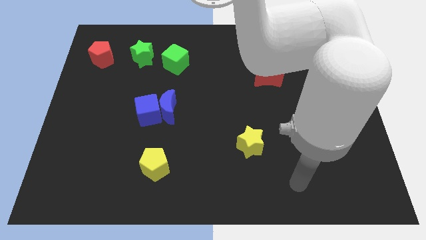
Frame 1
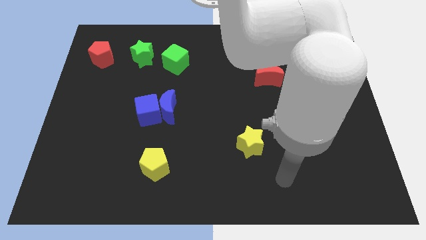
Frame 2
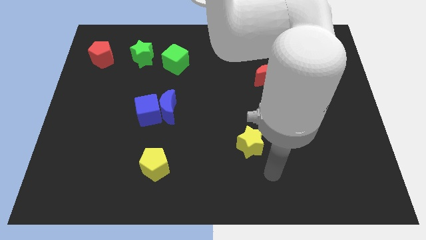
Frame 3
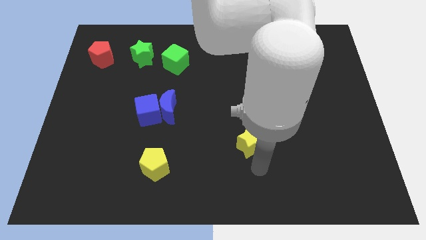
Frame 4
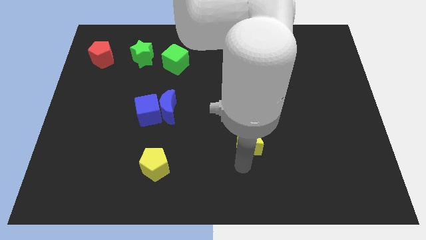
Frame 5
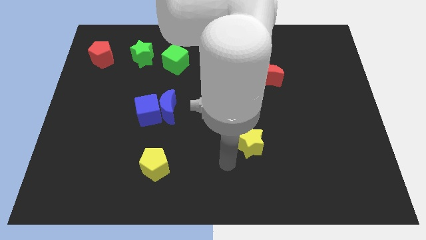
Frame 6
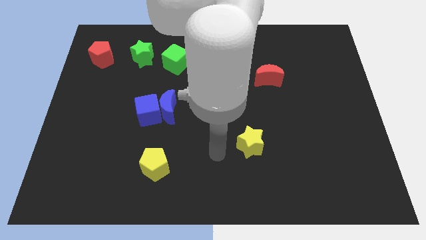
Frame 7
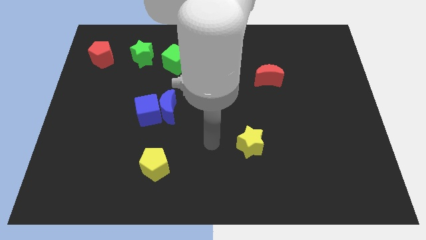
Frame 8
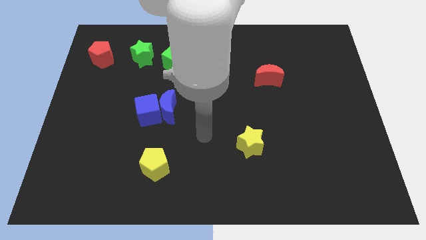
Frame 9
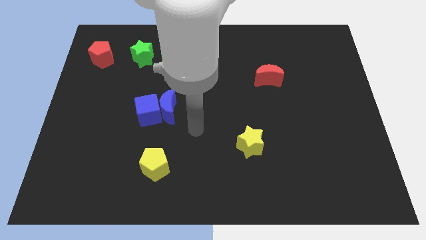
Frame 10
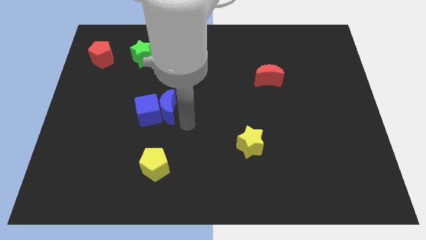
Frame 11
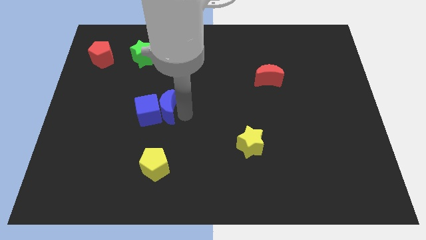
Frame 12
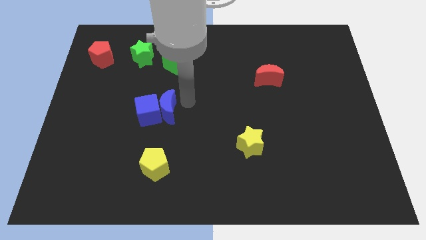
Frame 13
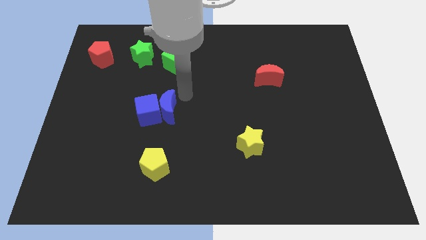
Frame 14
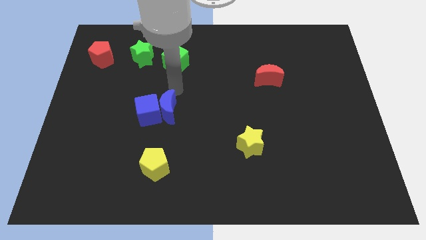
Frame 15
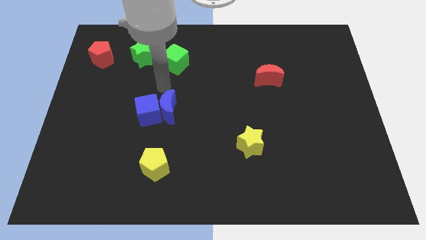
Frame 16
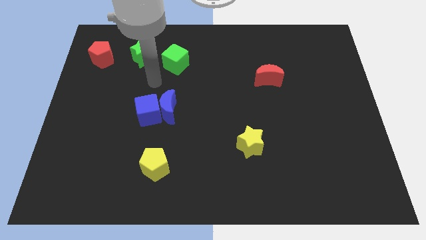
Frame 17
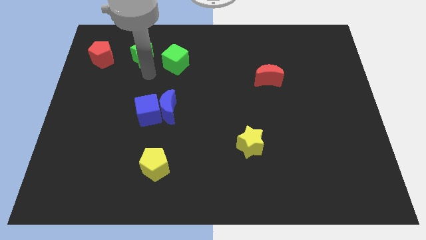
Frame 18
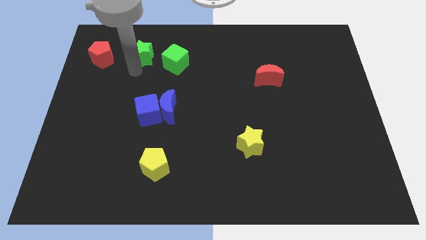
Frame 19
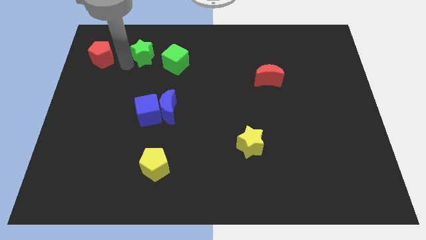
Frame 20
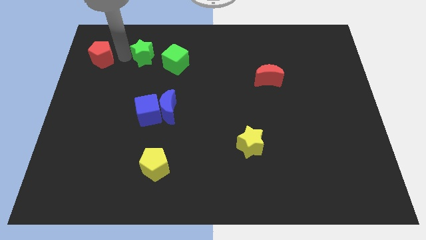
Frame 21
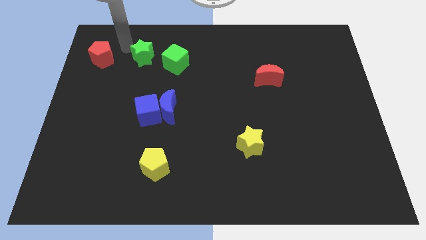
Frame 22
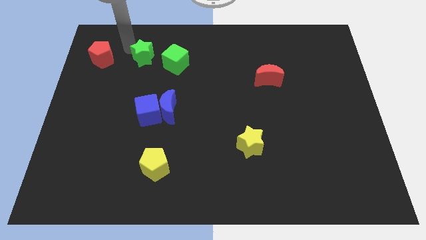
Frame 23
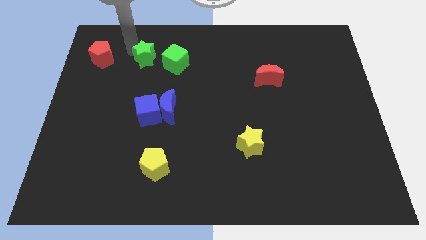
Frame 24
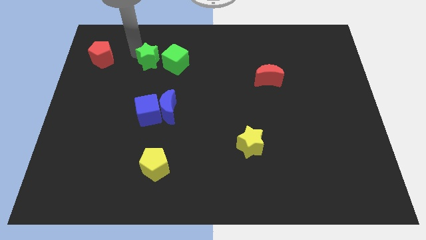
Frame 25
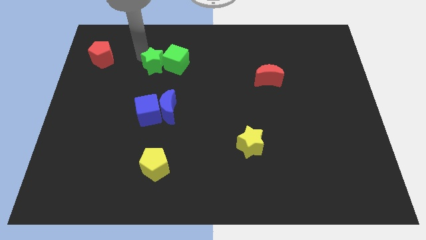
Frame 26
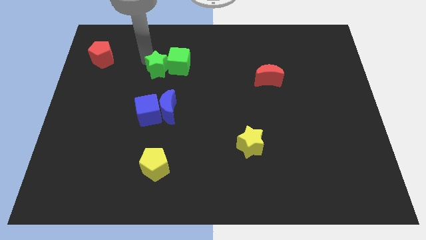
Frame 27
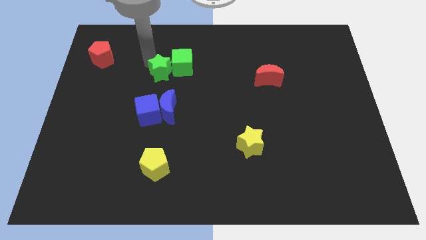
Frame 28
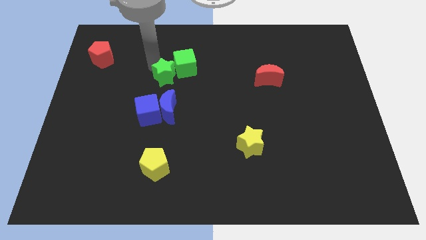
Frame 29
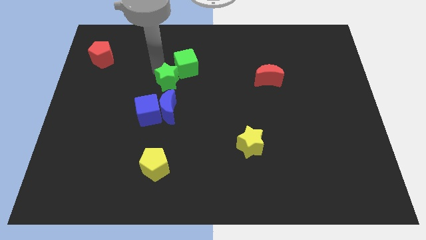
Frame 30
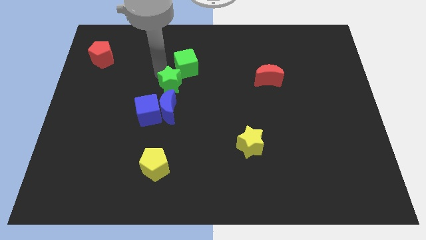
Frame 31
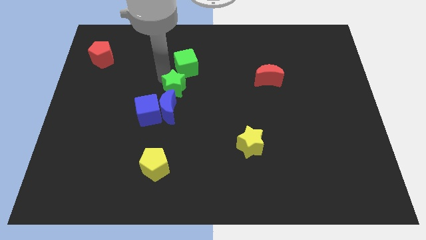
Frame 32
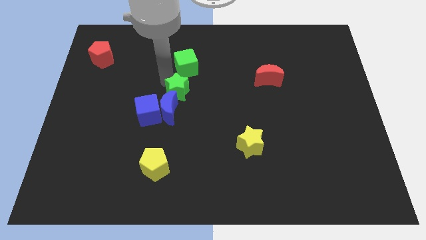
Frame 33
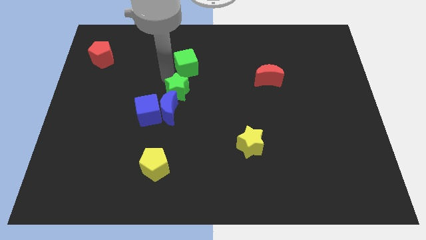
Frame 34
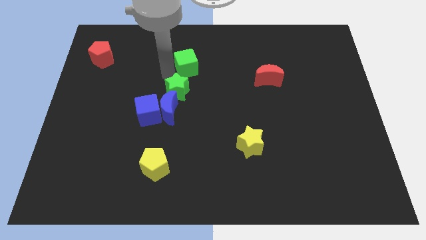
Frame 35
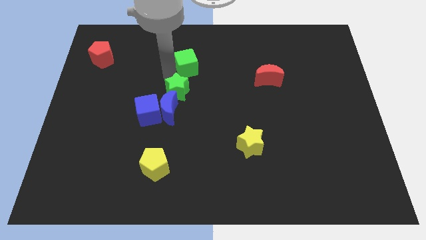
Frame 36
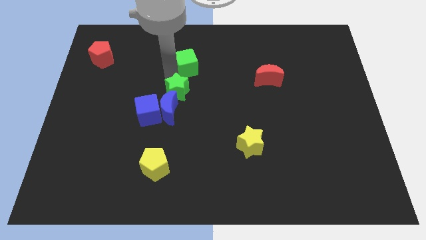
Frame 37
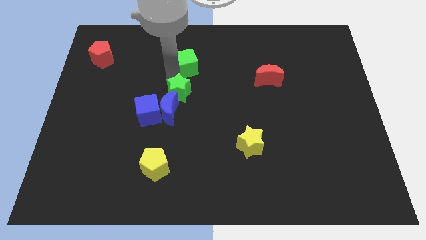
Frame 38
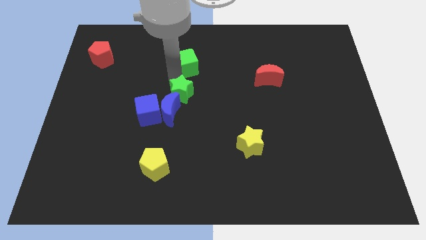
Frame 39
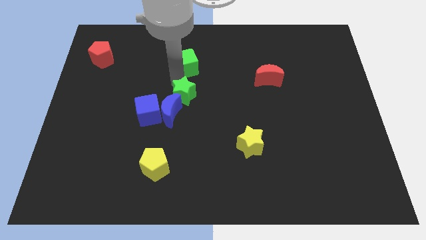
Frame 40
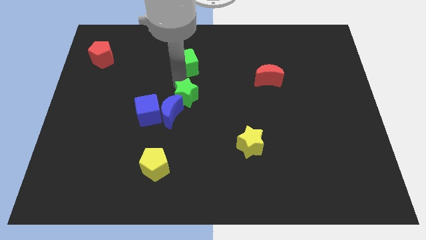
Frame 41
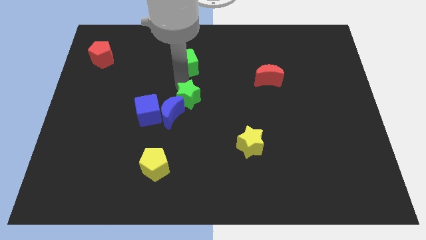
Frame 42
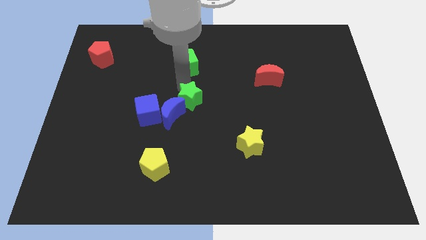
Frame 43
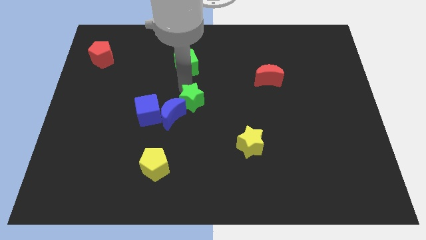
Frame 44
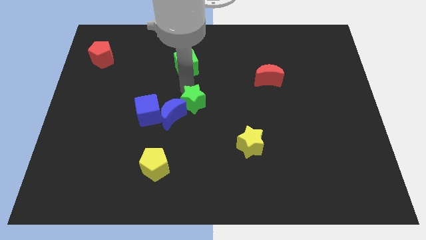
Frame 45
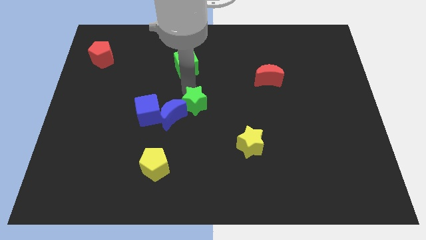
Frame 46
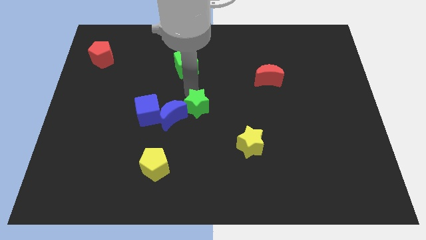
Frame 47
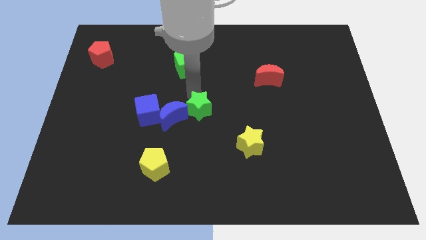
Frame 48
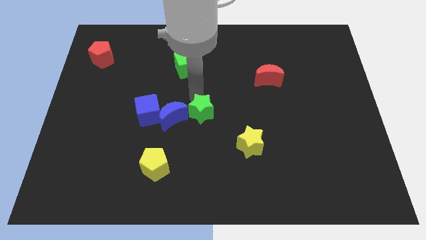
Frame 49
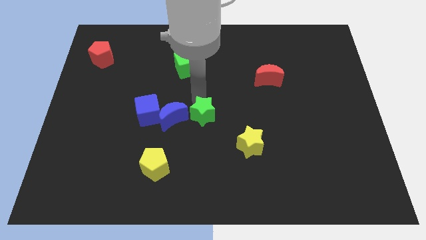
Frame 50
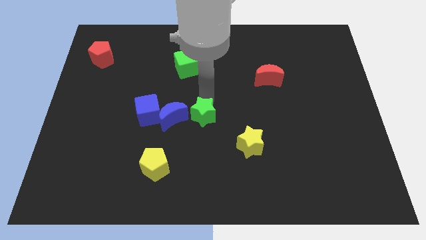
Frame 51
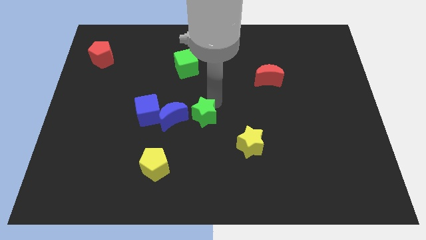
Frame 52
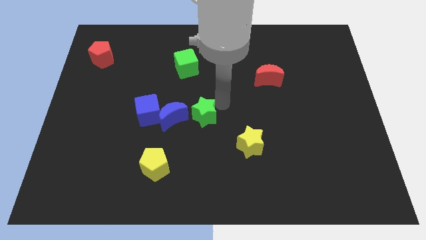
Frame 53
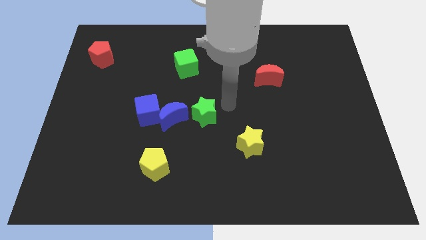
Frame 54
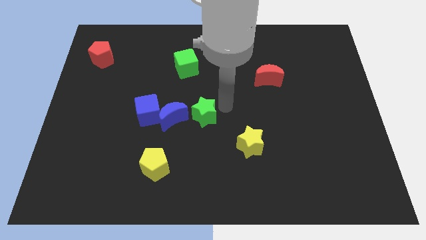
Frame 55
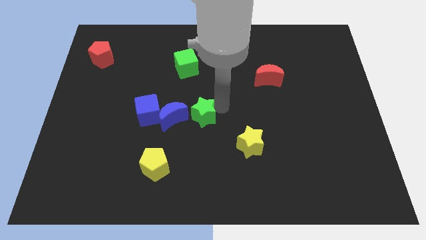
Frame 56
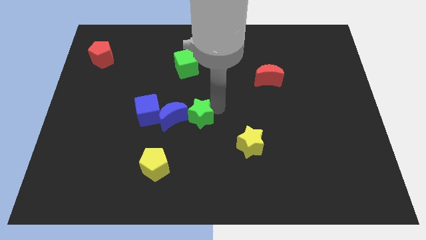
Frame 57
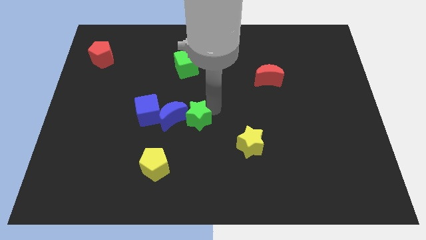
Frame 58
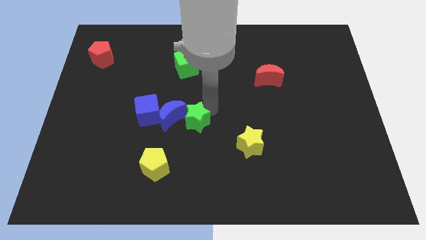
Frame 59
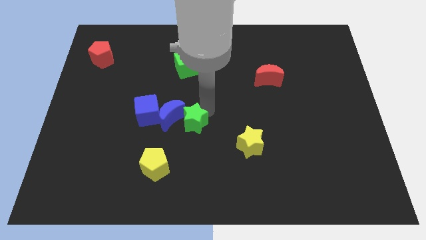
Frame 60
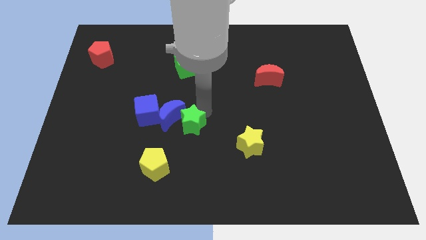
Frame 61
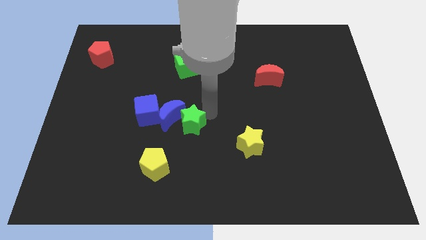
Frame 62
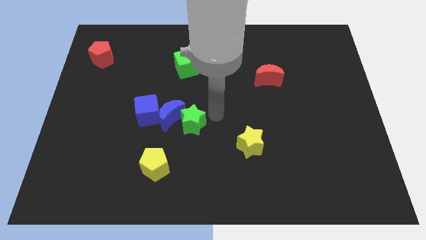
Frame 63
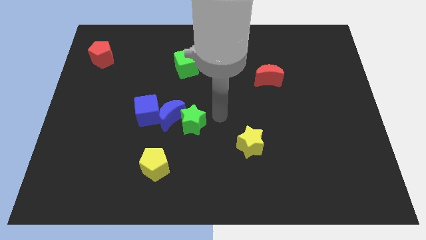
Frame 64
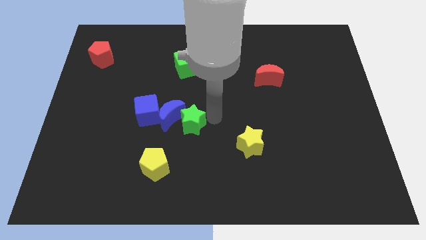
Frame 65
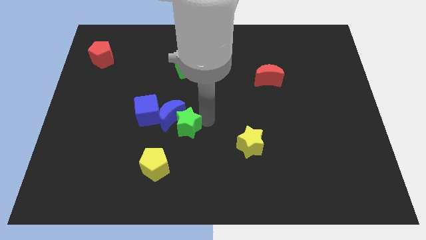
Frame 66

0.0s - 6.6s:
slide the green star to the bottom right of the blue cube

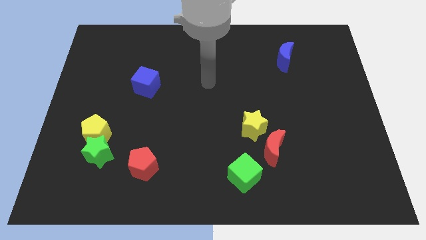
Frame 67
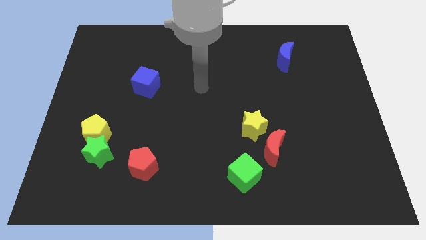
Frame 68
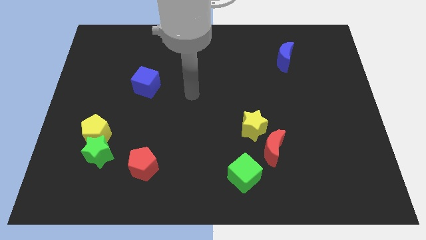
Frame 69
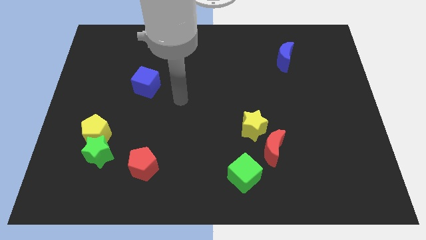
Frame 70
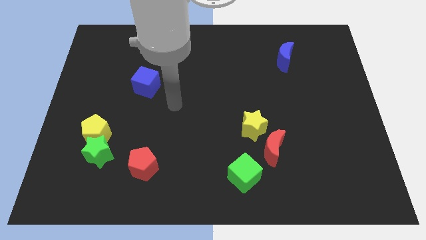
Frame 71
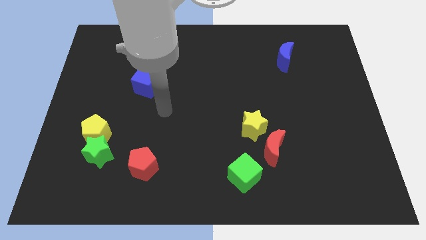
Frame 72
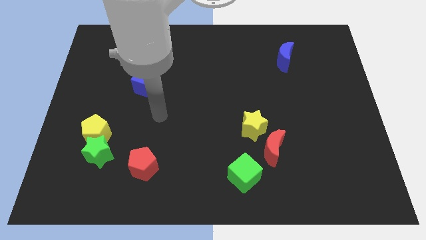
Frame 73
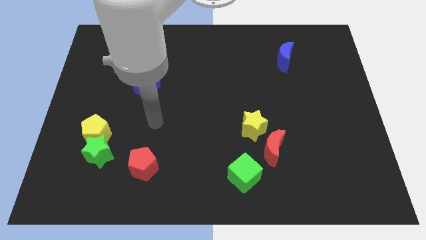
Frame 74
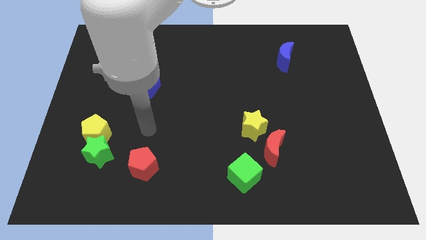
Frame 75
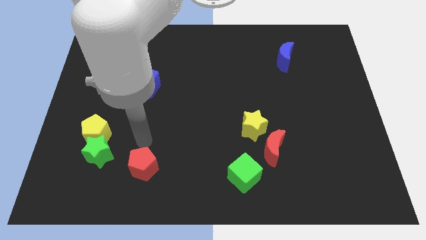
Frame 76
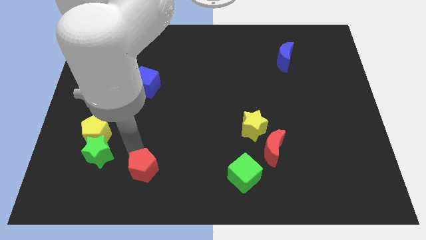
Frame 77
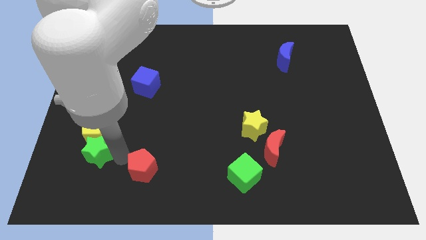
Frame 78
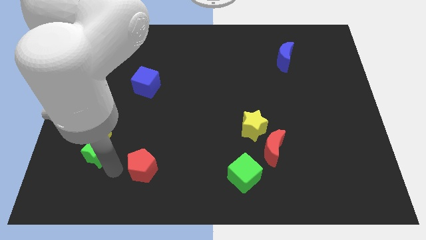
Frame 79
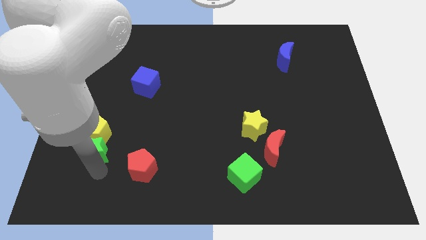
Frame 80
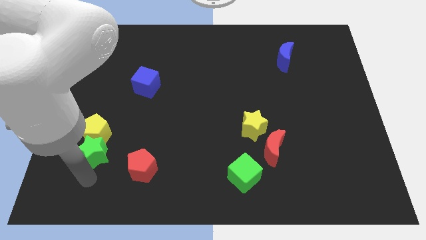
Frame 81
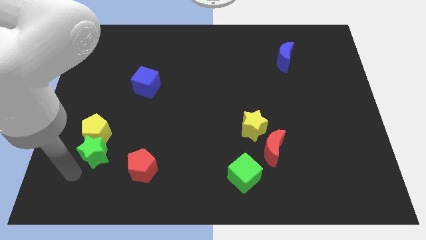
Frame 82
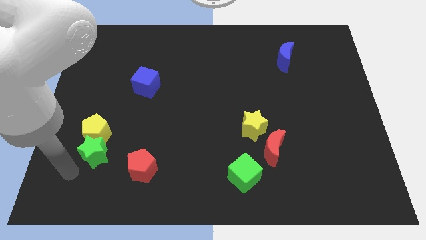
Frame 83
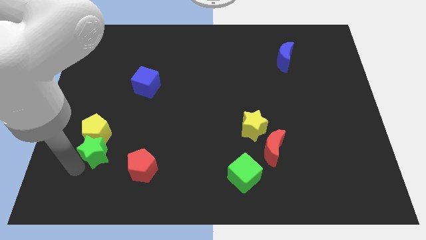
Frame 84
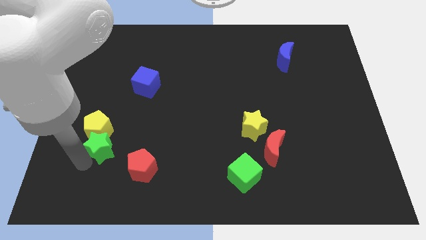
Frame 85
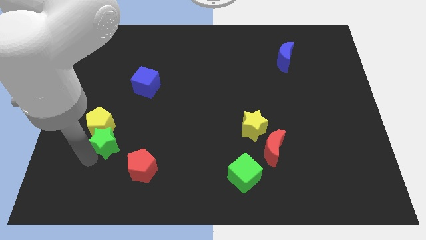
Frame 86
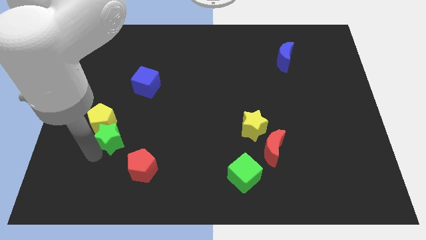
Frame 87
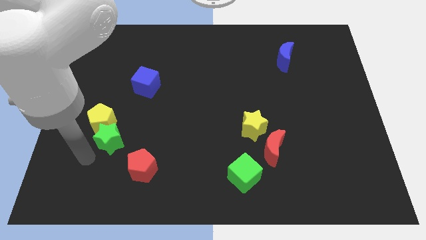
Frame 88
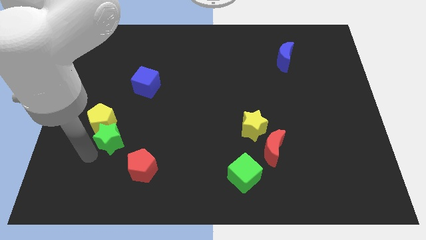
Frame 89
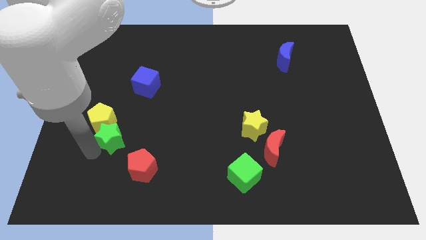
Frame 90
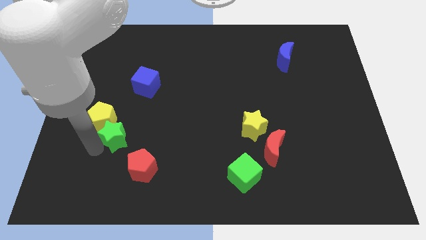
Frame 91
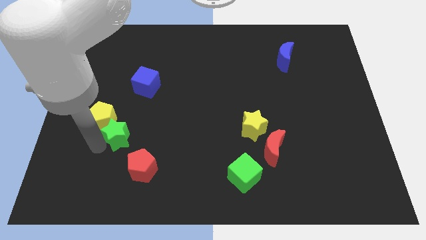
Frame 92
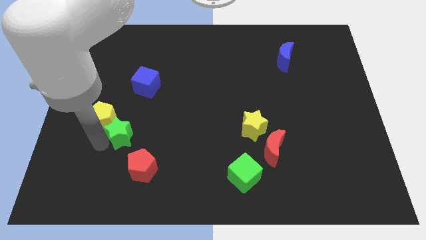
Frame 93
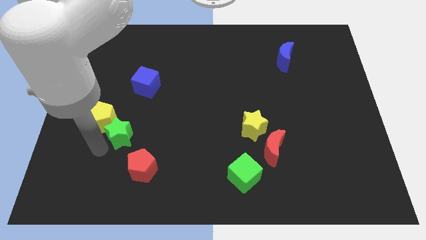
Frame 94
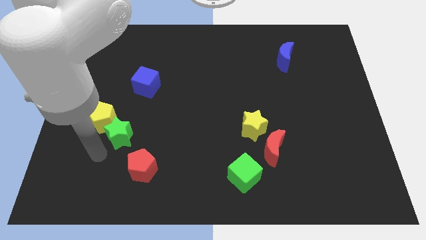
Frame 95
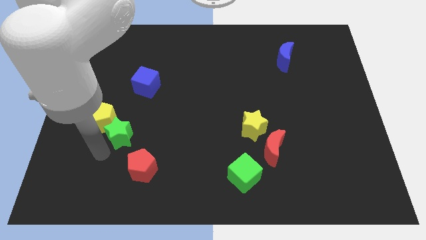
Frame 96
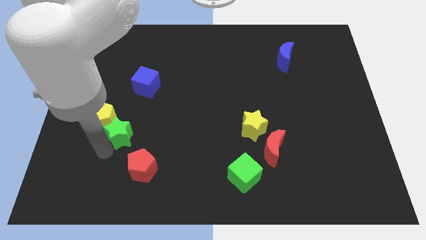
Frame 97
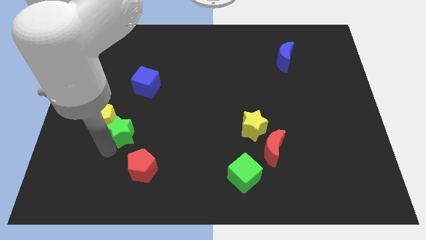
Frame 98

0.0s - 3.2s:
put the green star to the bottom side of the blue cube
